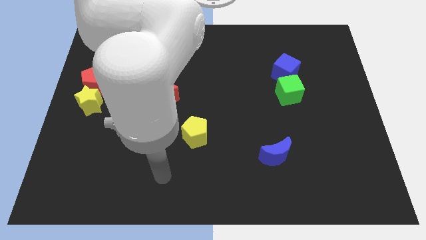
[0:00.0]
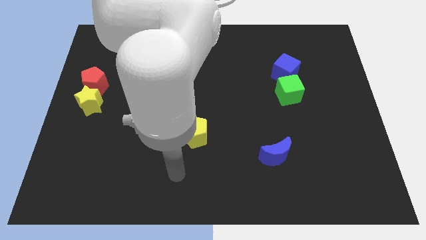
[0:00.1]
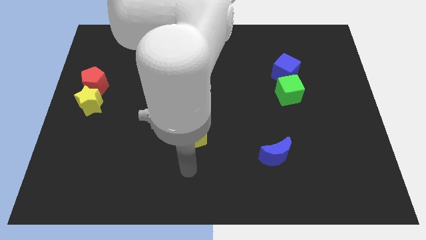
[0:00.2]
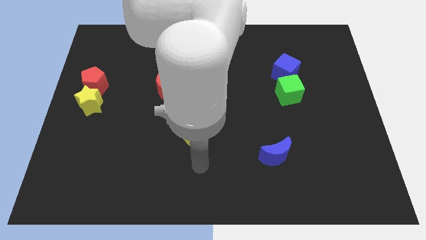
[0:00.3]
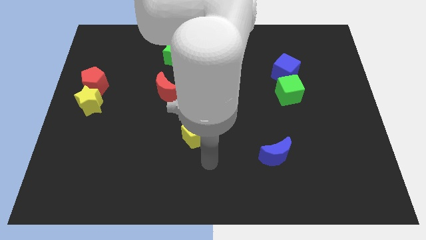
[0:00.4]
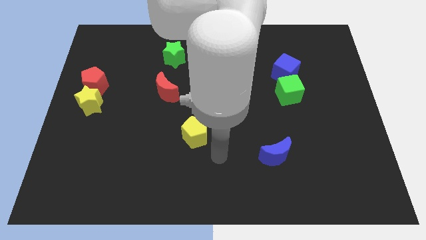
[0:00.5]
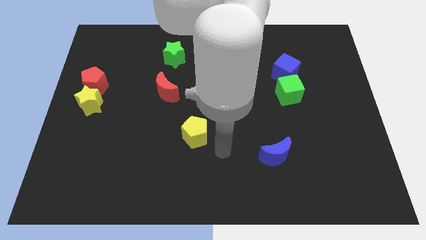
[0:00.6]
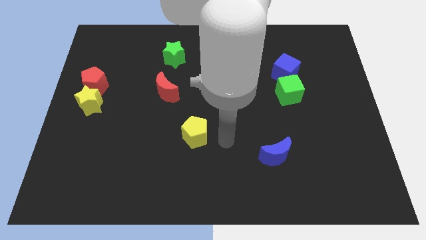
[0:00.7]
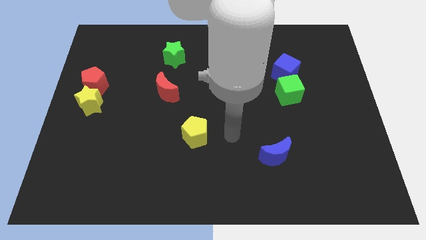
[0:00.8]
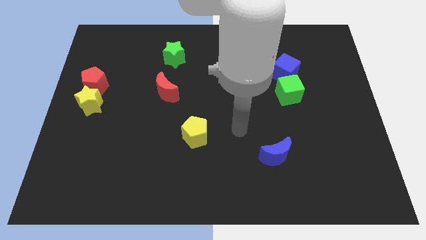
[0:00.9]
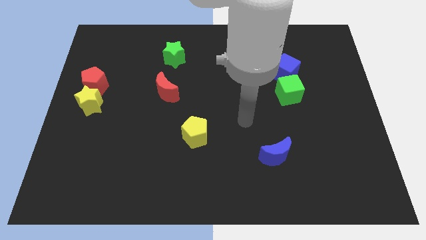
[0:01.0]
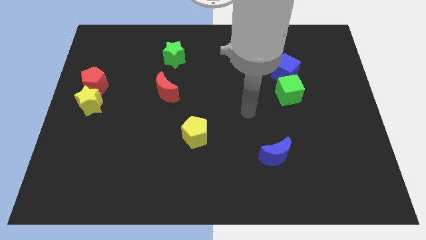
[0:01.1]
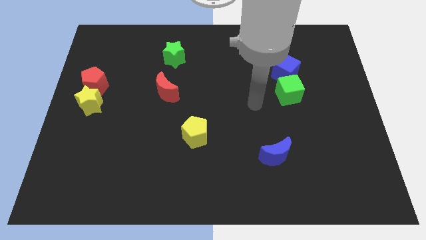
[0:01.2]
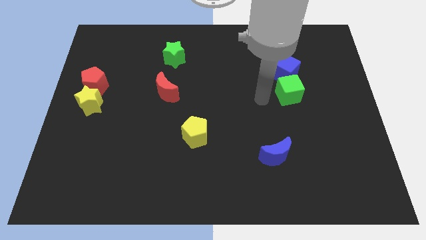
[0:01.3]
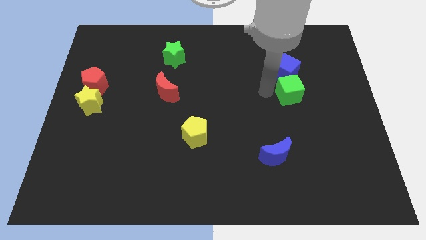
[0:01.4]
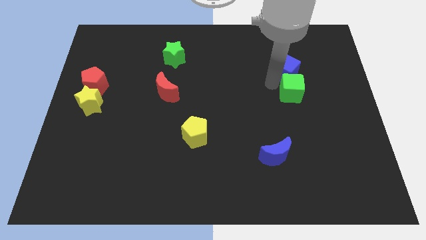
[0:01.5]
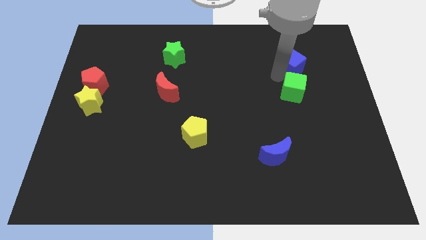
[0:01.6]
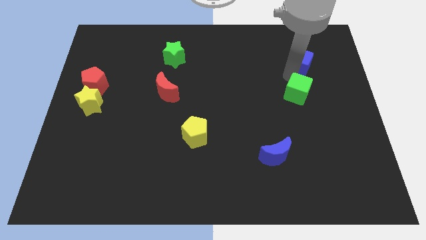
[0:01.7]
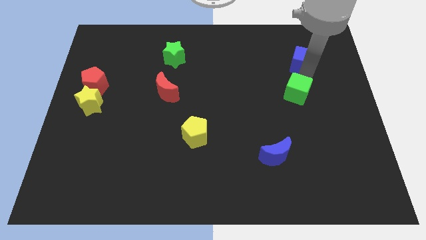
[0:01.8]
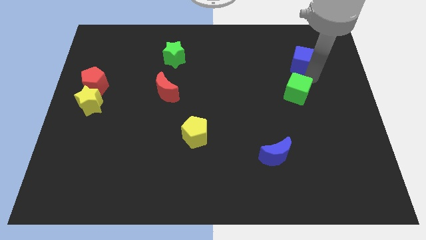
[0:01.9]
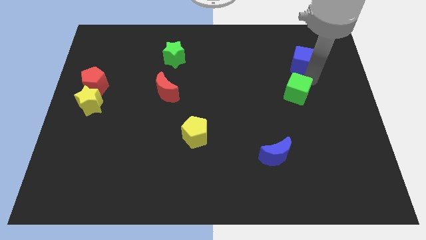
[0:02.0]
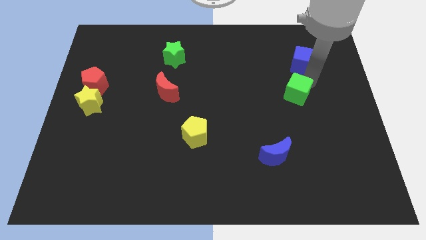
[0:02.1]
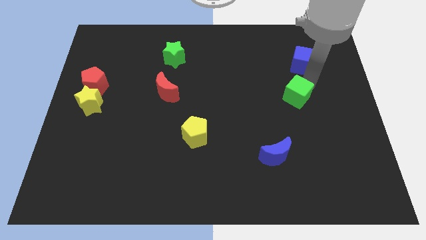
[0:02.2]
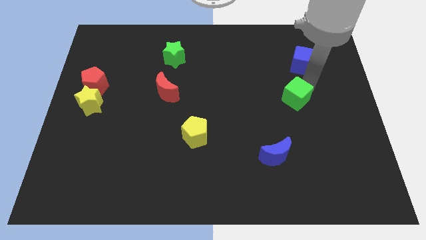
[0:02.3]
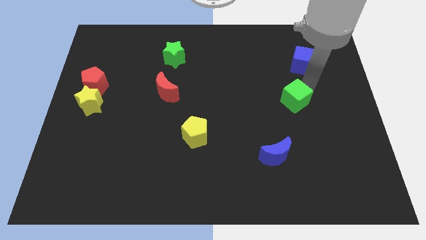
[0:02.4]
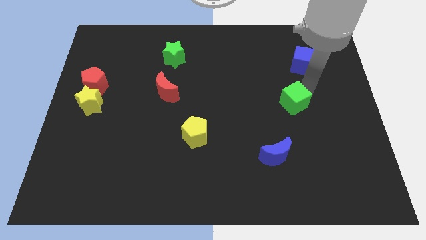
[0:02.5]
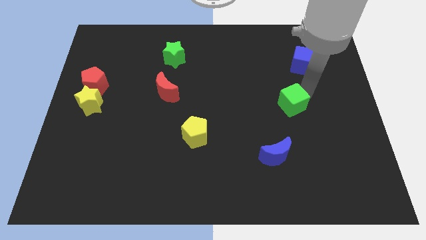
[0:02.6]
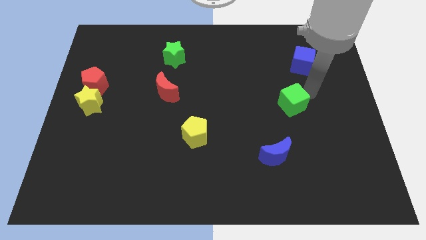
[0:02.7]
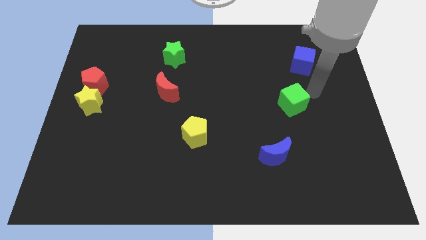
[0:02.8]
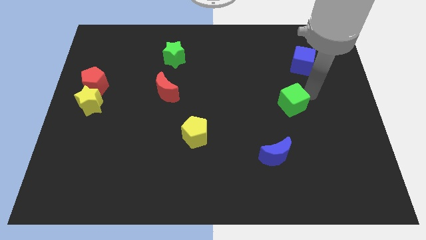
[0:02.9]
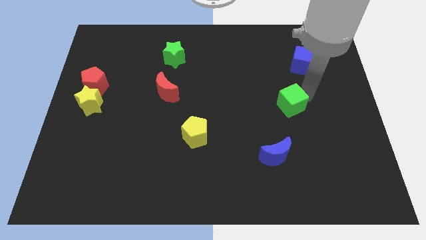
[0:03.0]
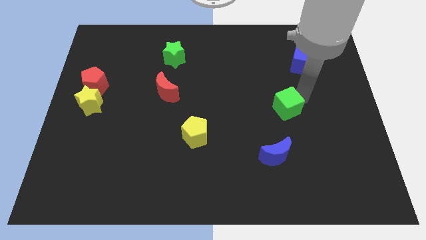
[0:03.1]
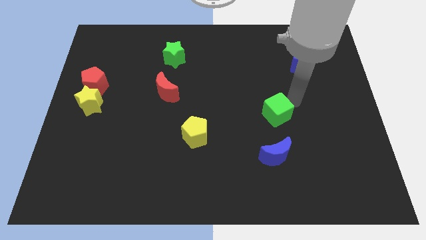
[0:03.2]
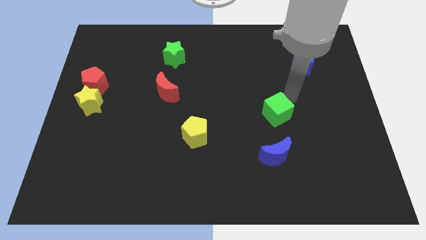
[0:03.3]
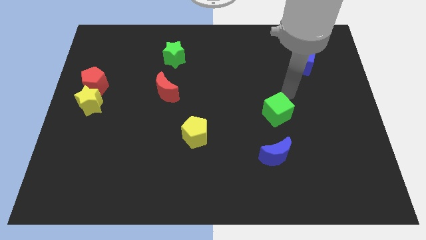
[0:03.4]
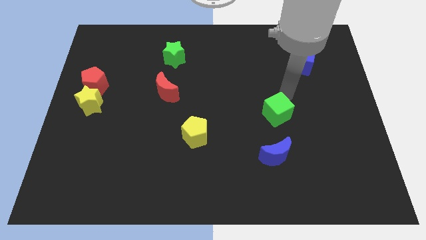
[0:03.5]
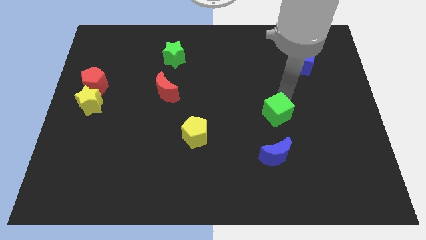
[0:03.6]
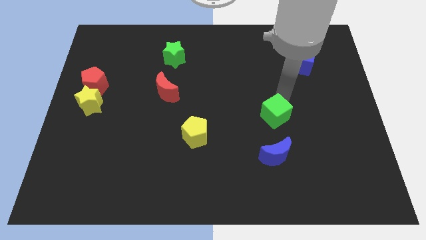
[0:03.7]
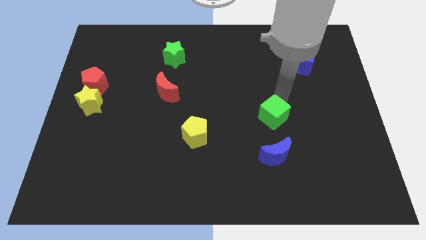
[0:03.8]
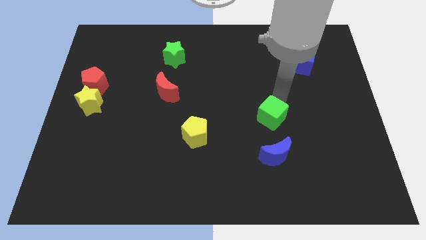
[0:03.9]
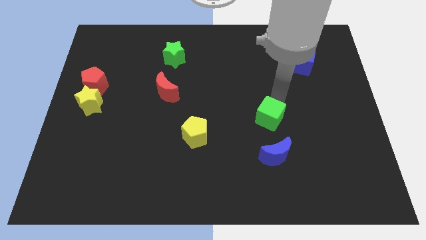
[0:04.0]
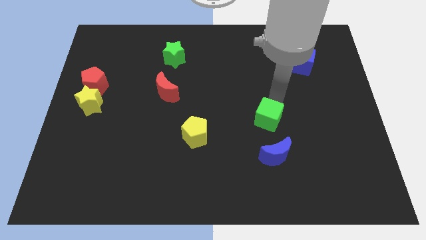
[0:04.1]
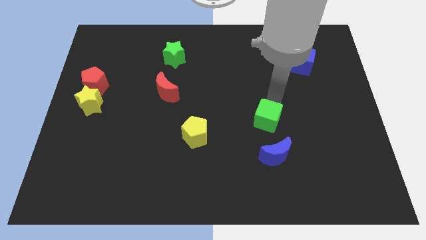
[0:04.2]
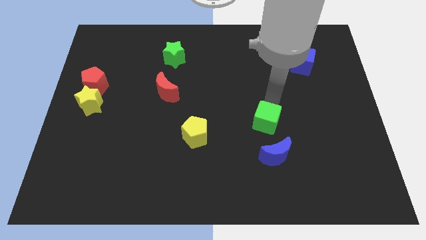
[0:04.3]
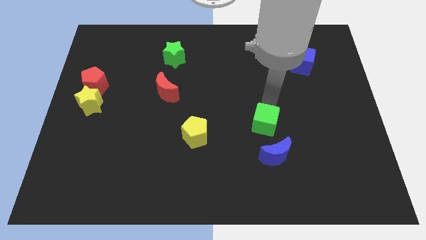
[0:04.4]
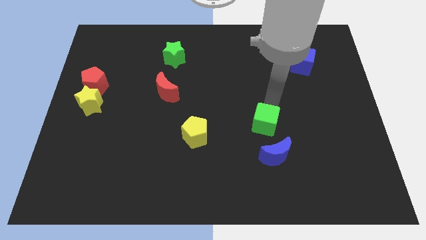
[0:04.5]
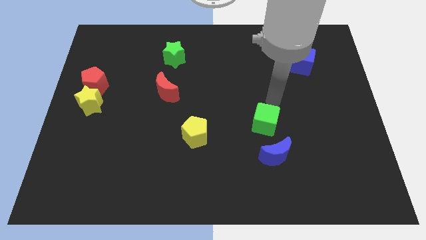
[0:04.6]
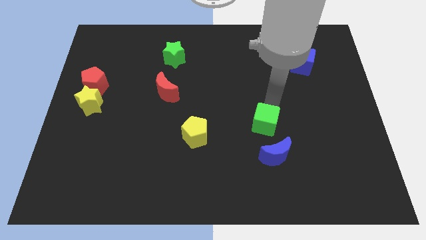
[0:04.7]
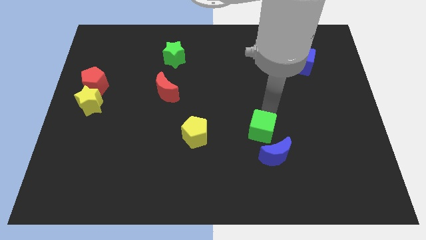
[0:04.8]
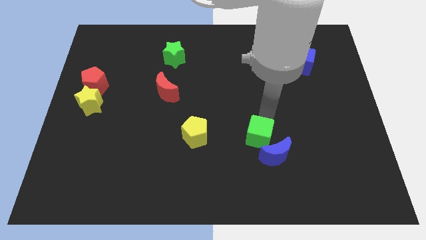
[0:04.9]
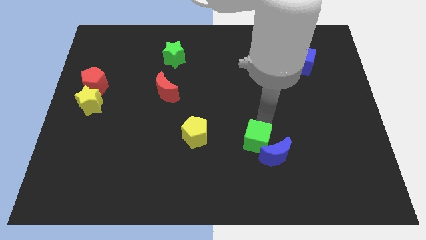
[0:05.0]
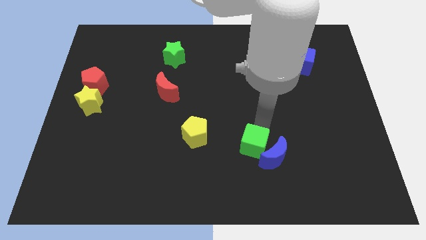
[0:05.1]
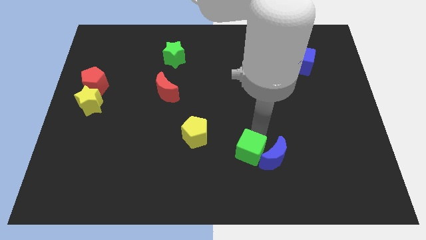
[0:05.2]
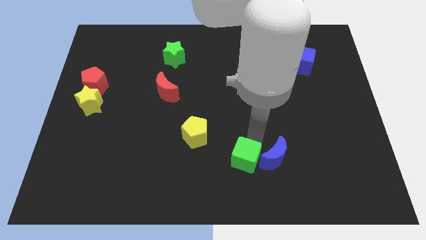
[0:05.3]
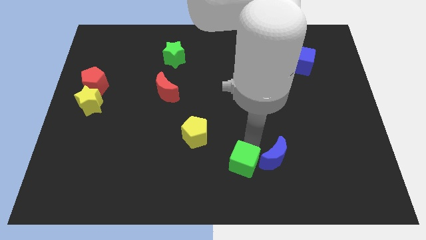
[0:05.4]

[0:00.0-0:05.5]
push the green cube to the bottom
